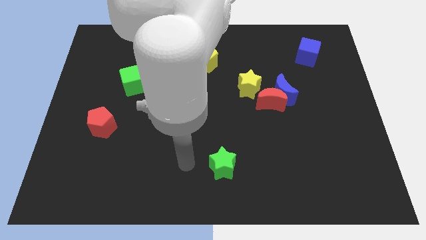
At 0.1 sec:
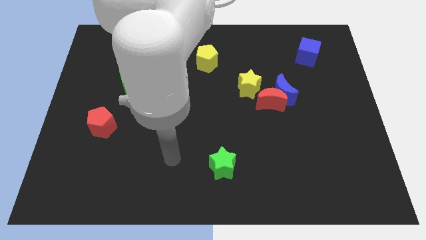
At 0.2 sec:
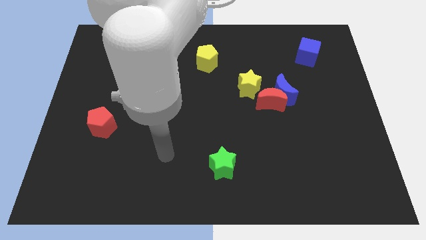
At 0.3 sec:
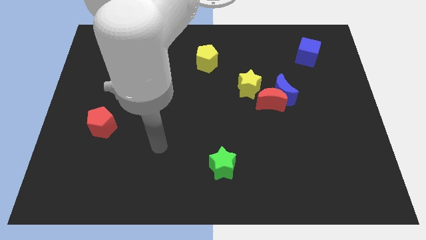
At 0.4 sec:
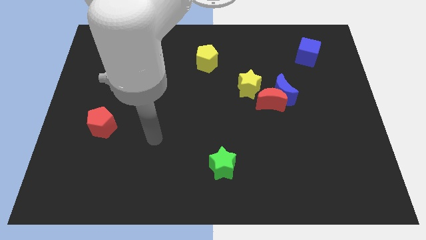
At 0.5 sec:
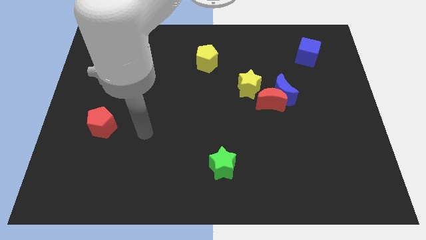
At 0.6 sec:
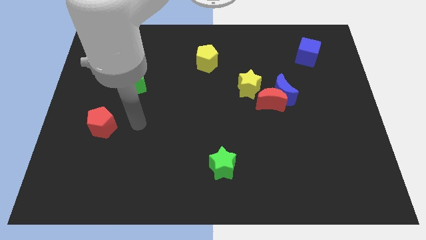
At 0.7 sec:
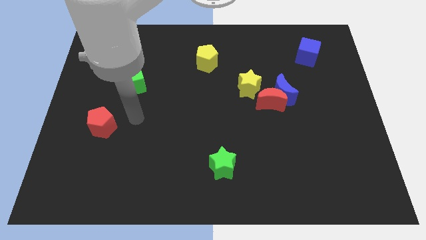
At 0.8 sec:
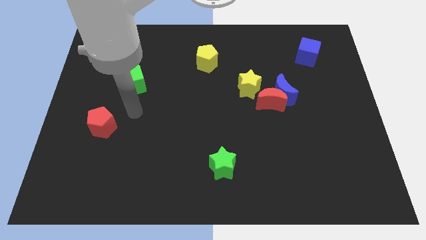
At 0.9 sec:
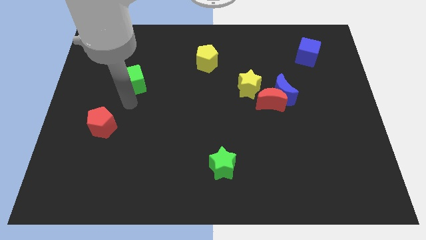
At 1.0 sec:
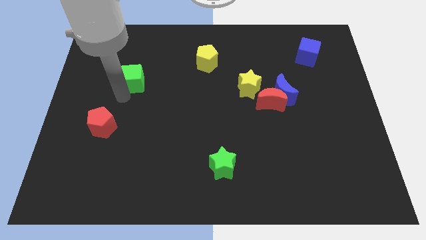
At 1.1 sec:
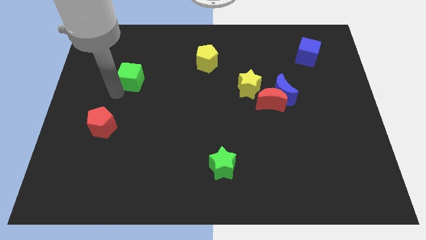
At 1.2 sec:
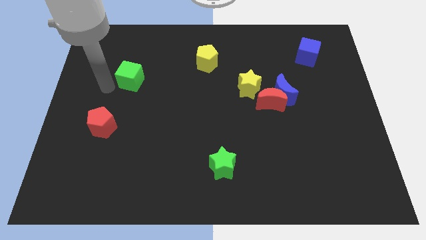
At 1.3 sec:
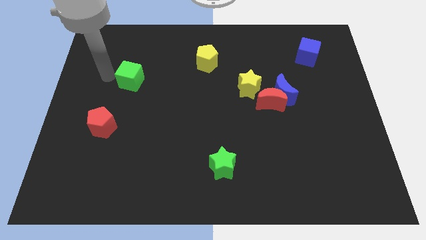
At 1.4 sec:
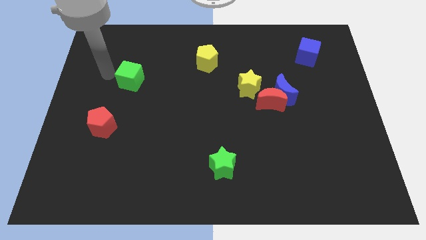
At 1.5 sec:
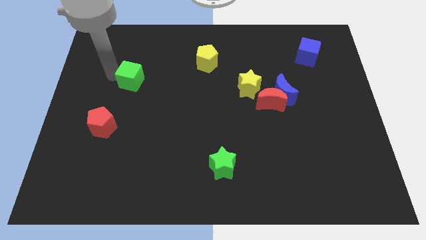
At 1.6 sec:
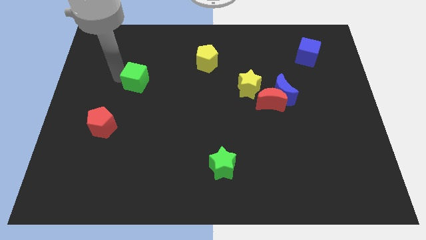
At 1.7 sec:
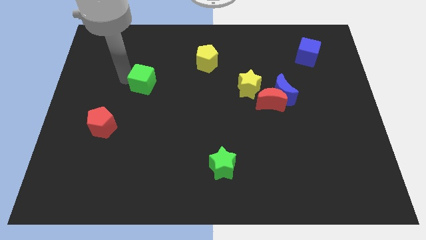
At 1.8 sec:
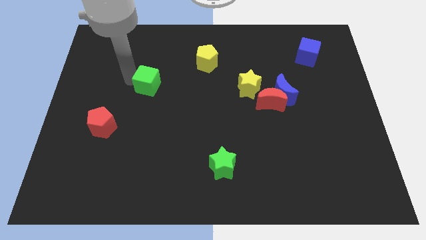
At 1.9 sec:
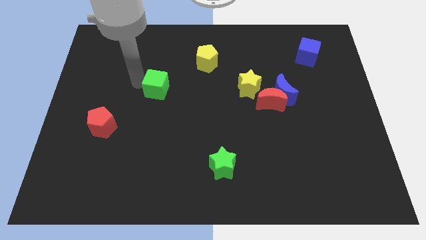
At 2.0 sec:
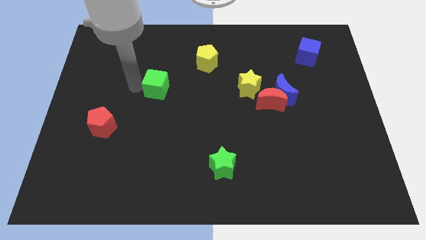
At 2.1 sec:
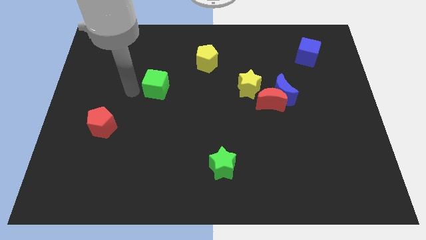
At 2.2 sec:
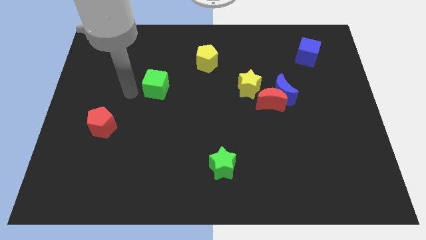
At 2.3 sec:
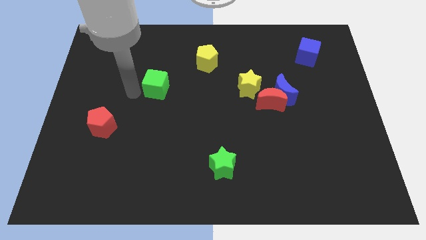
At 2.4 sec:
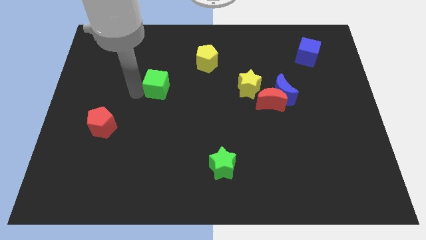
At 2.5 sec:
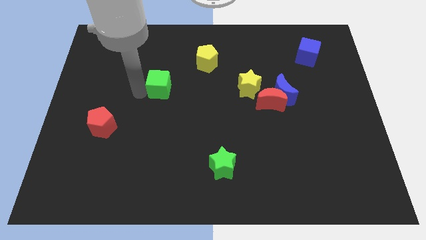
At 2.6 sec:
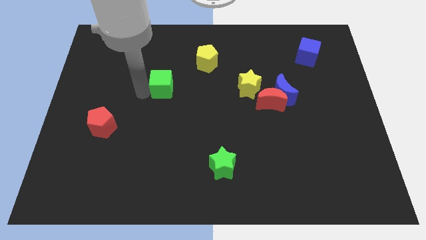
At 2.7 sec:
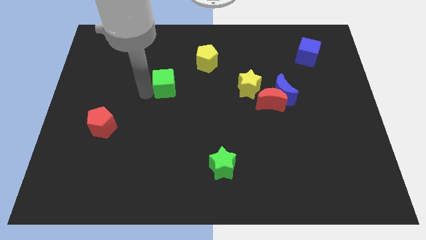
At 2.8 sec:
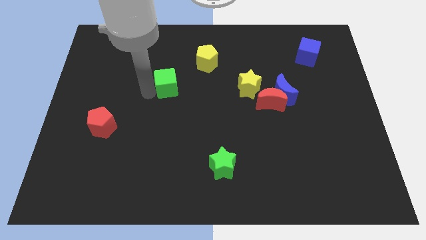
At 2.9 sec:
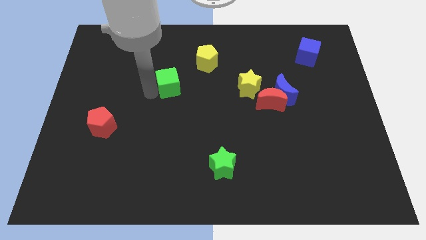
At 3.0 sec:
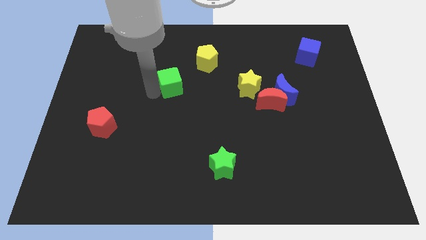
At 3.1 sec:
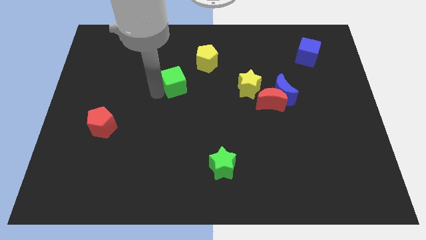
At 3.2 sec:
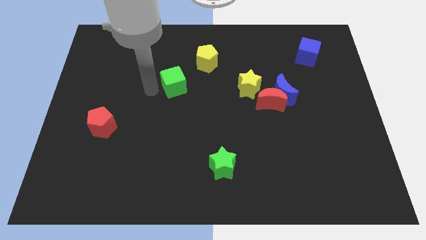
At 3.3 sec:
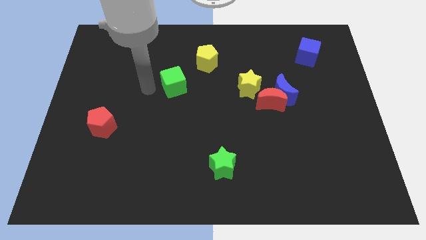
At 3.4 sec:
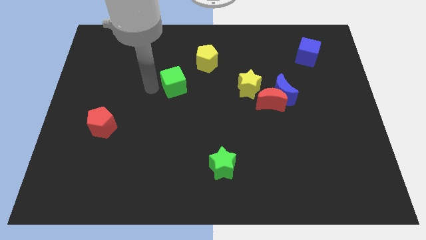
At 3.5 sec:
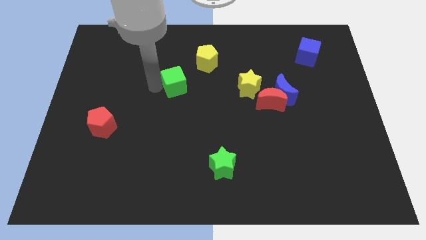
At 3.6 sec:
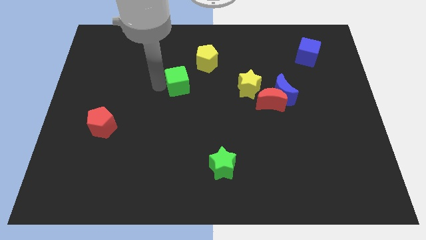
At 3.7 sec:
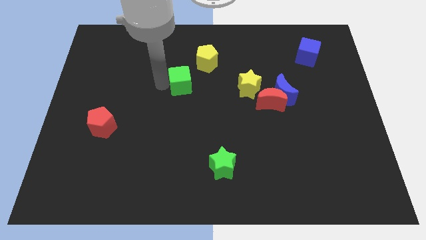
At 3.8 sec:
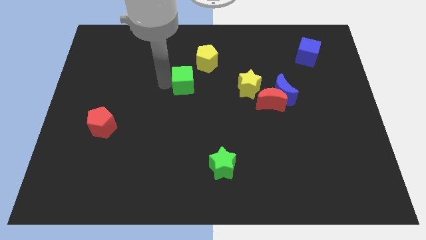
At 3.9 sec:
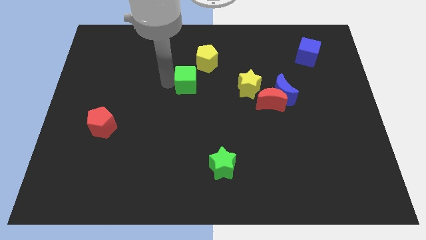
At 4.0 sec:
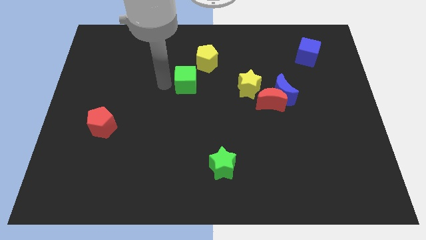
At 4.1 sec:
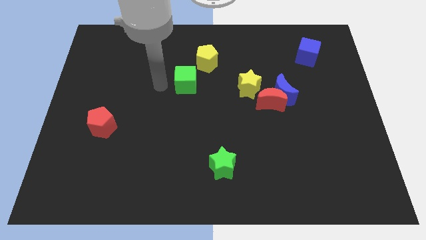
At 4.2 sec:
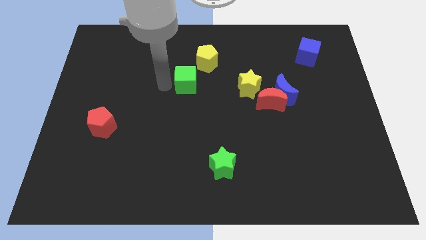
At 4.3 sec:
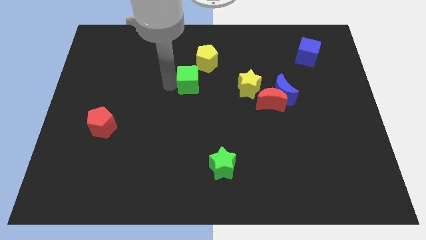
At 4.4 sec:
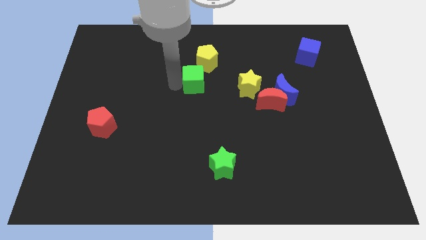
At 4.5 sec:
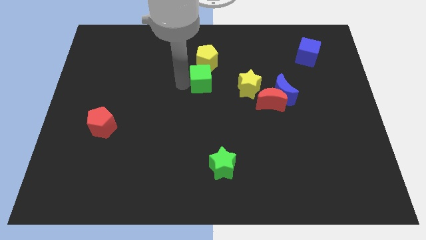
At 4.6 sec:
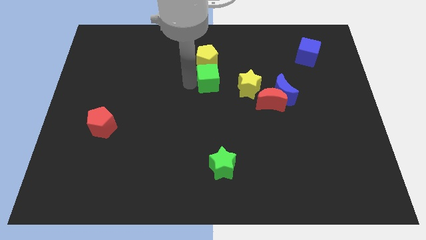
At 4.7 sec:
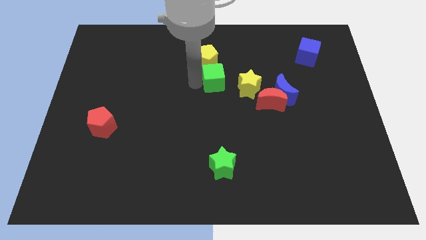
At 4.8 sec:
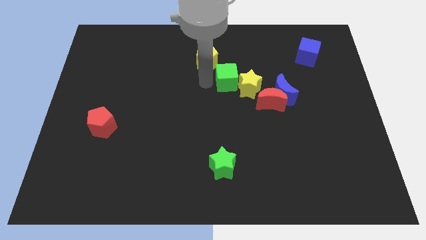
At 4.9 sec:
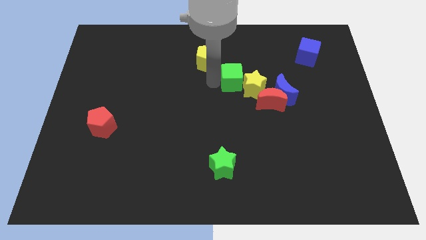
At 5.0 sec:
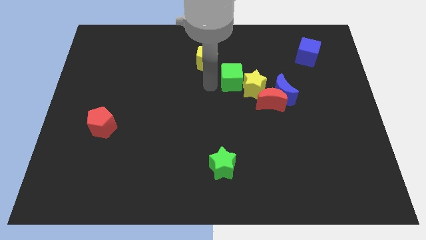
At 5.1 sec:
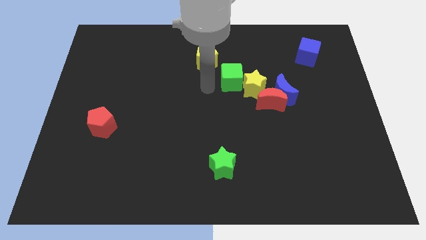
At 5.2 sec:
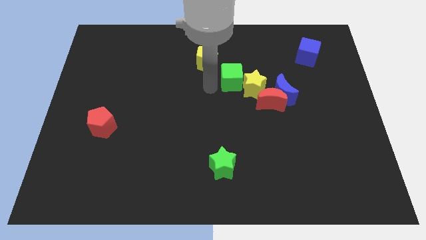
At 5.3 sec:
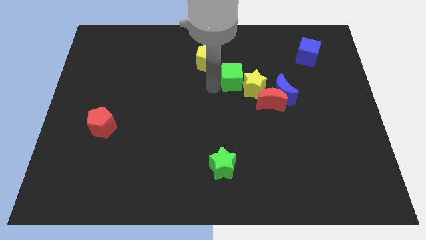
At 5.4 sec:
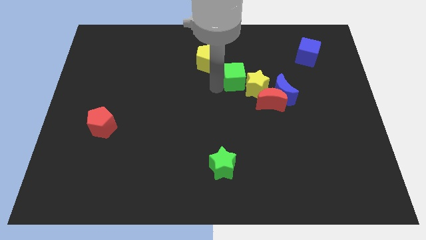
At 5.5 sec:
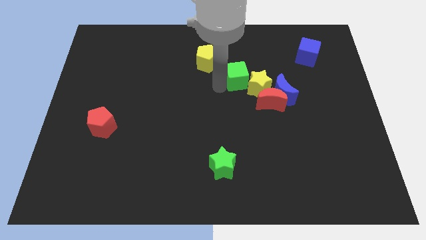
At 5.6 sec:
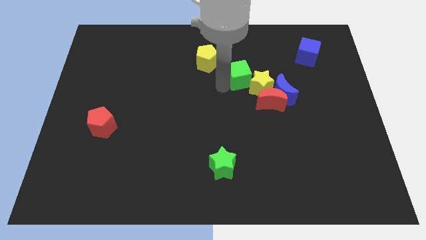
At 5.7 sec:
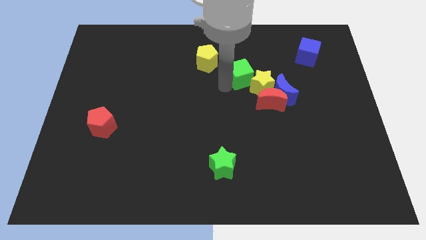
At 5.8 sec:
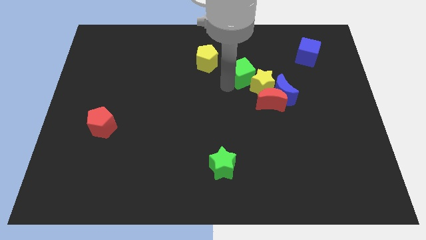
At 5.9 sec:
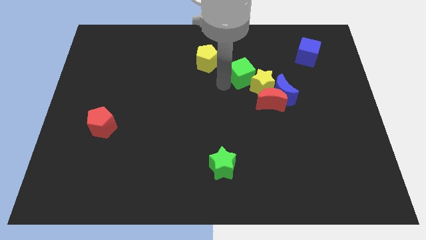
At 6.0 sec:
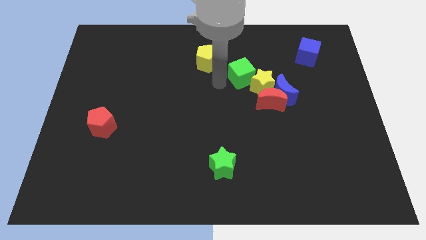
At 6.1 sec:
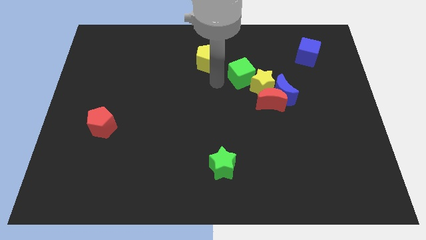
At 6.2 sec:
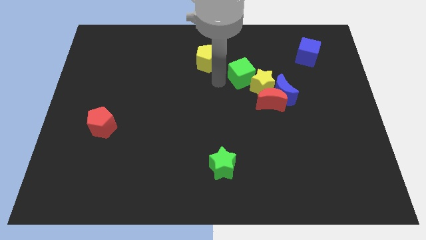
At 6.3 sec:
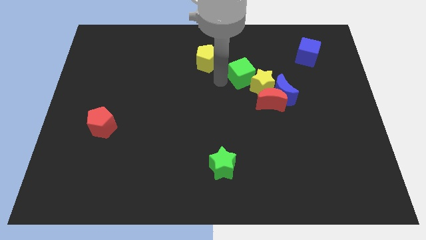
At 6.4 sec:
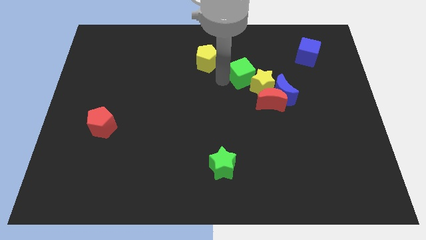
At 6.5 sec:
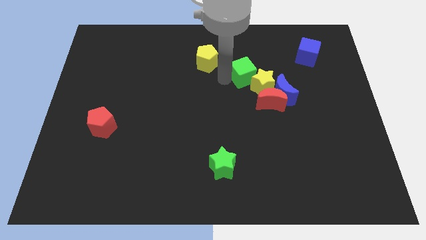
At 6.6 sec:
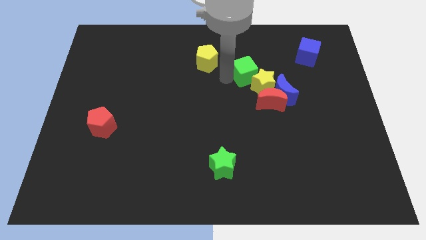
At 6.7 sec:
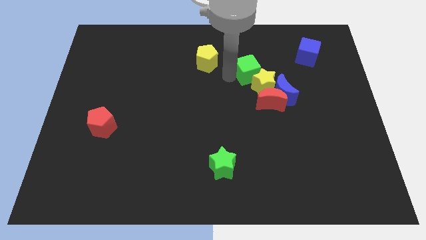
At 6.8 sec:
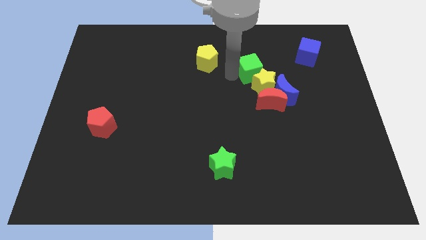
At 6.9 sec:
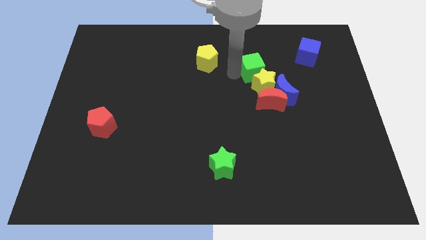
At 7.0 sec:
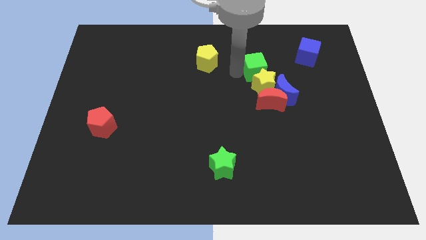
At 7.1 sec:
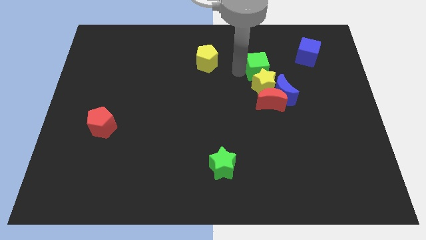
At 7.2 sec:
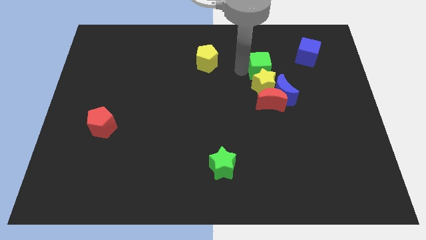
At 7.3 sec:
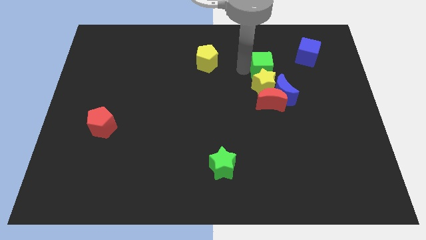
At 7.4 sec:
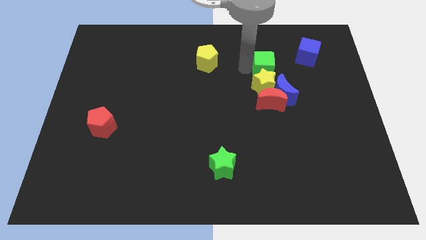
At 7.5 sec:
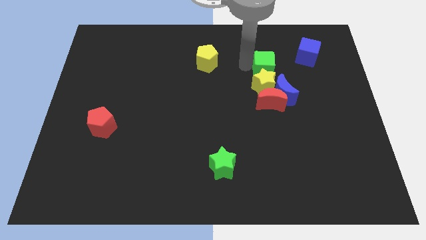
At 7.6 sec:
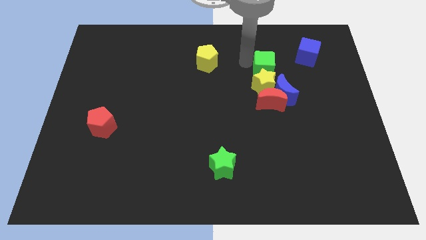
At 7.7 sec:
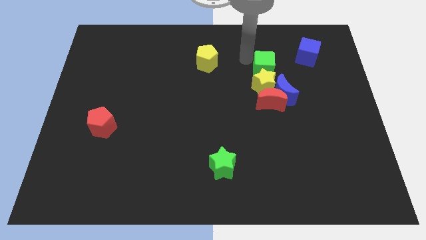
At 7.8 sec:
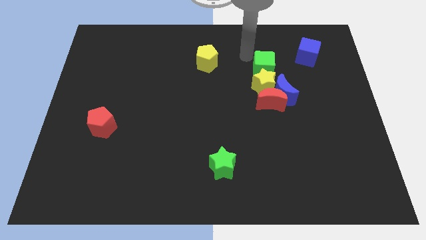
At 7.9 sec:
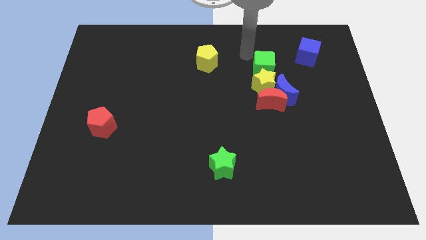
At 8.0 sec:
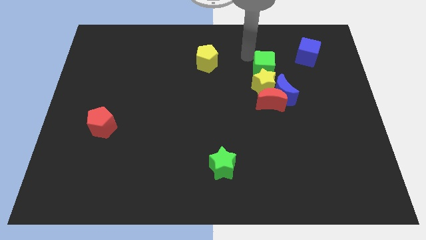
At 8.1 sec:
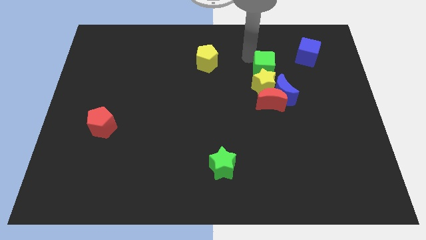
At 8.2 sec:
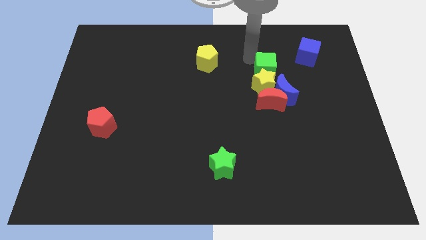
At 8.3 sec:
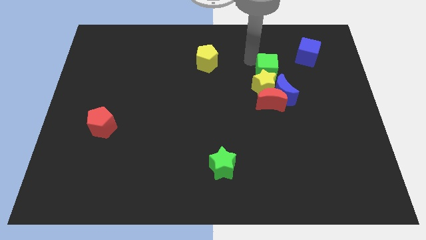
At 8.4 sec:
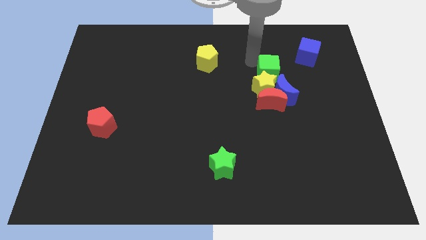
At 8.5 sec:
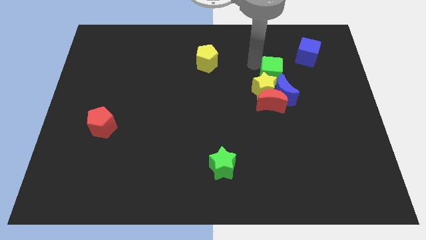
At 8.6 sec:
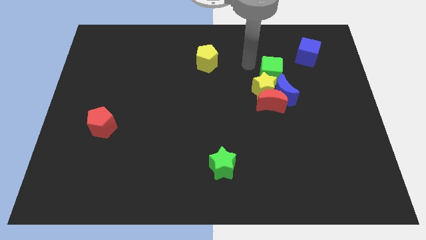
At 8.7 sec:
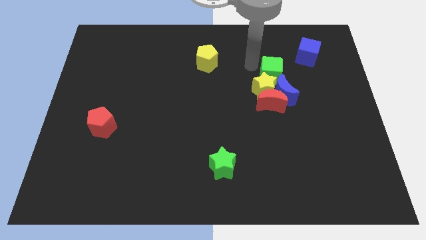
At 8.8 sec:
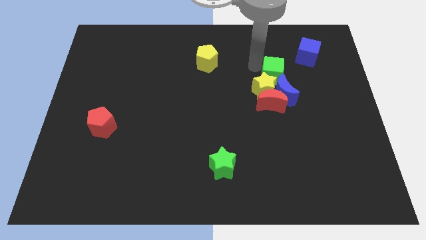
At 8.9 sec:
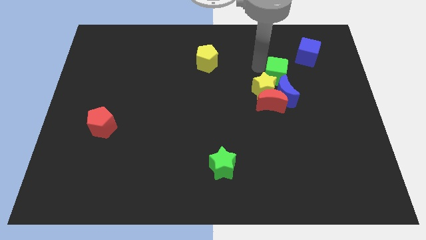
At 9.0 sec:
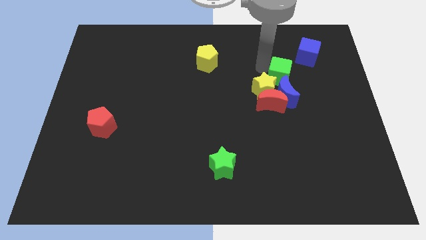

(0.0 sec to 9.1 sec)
put the green cube right of the yellow star
